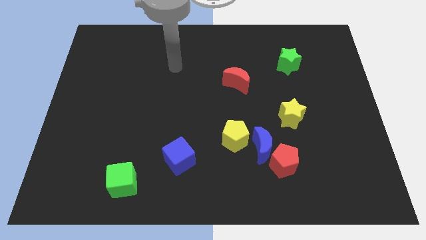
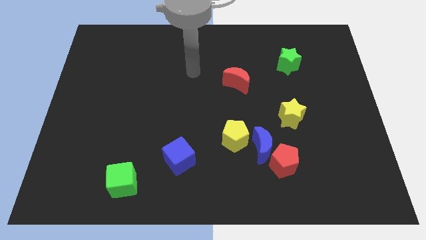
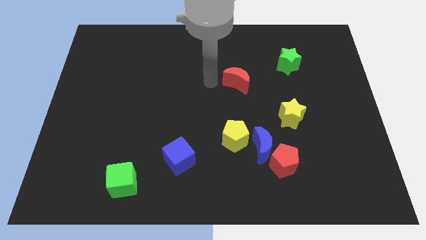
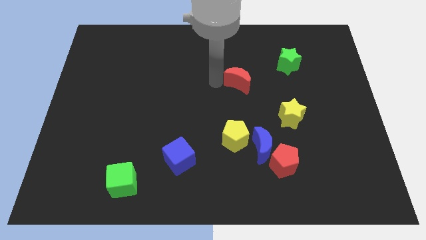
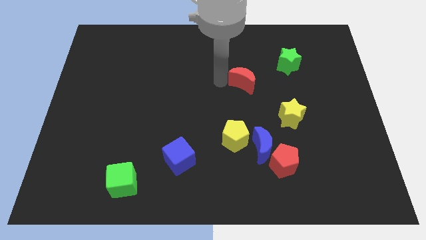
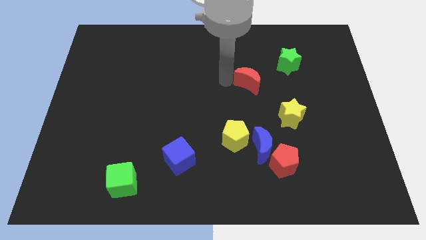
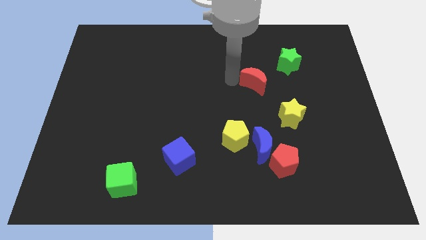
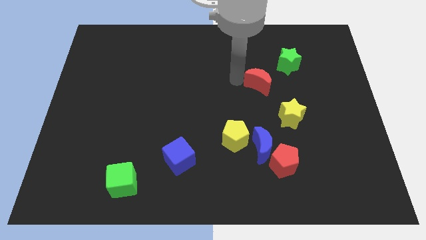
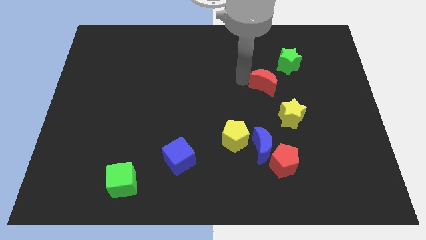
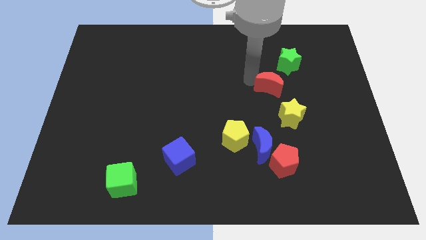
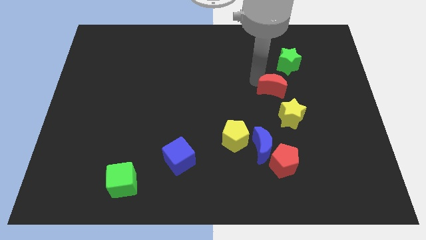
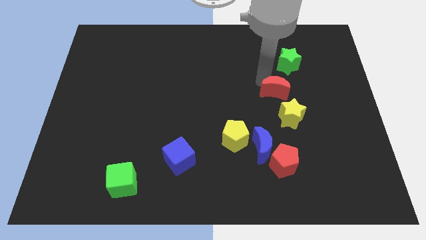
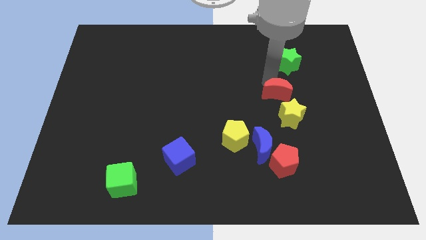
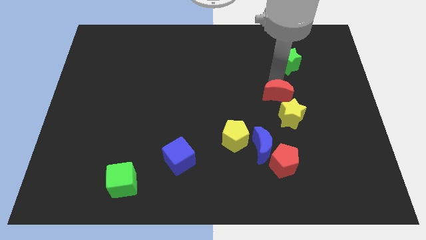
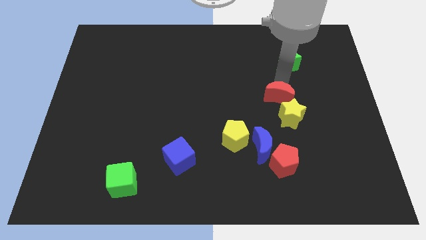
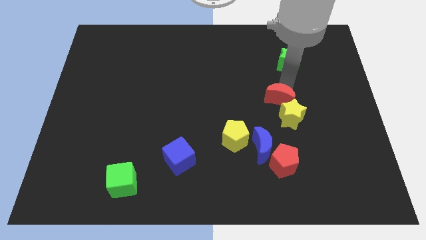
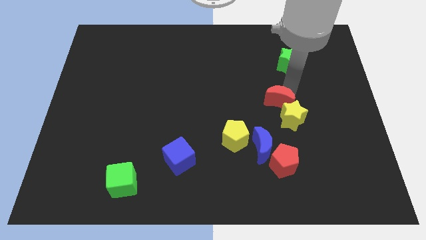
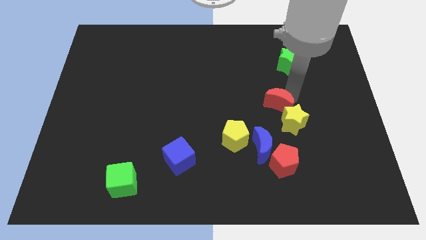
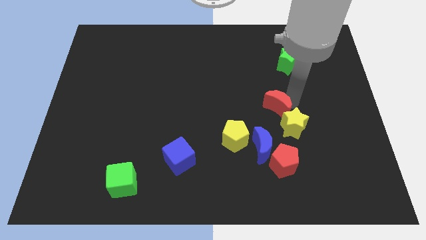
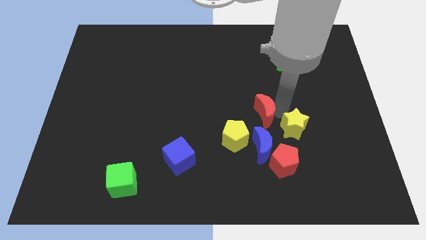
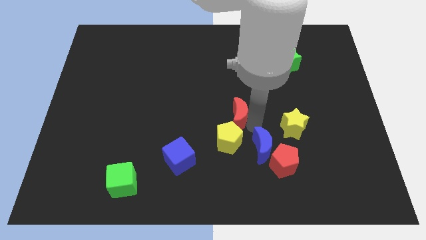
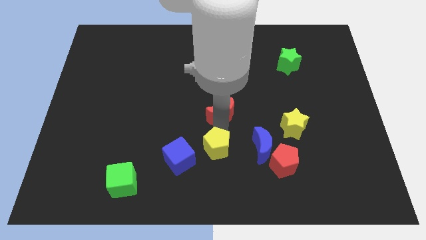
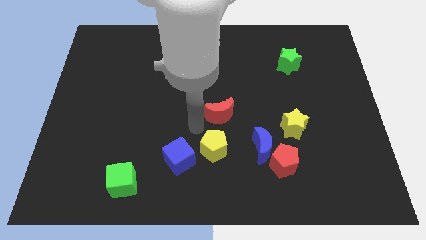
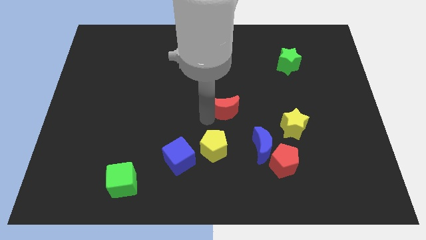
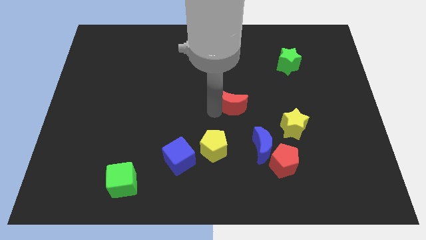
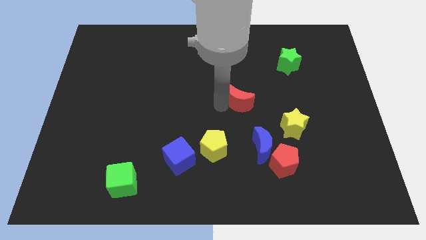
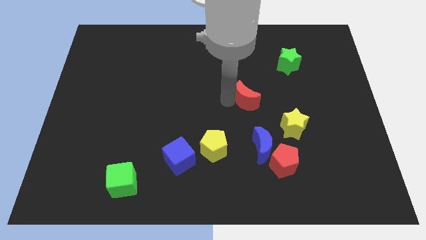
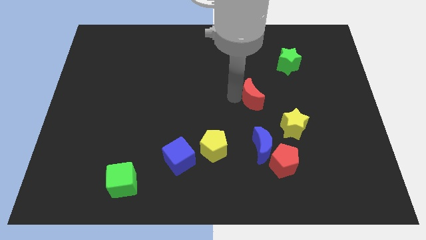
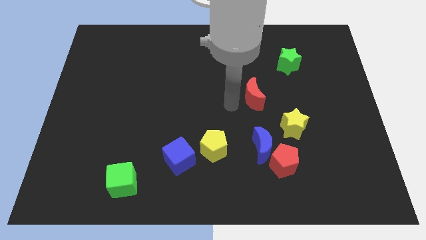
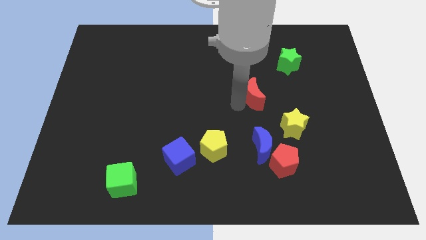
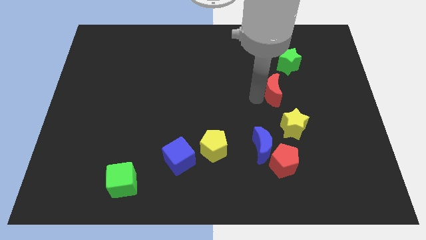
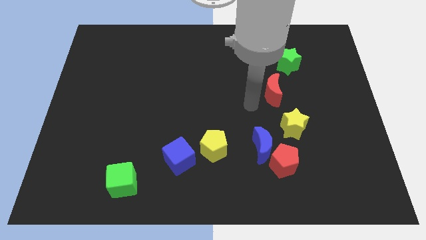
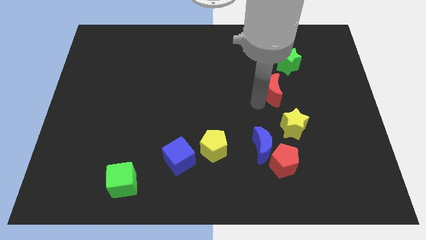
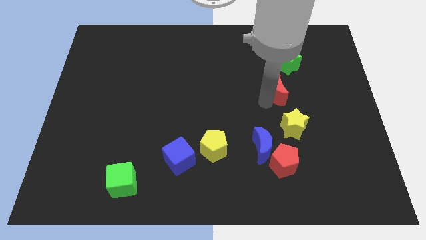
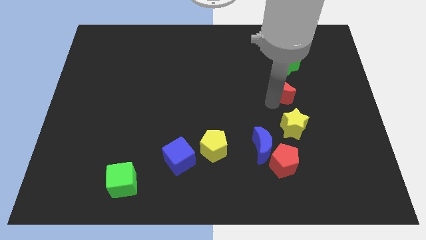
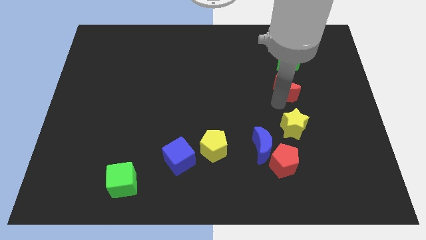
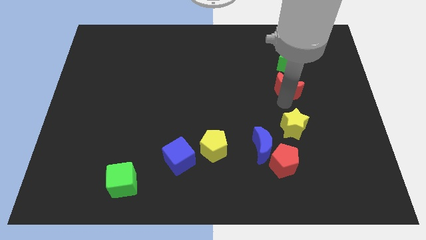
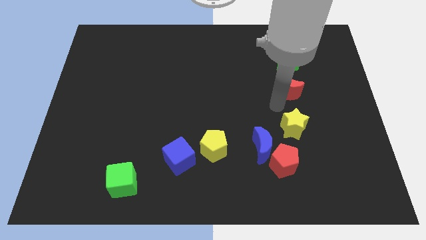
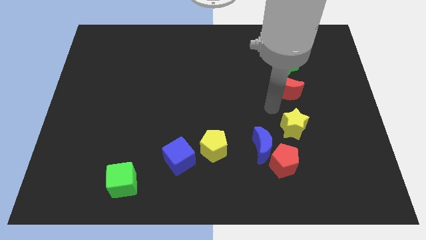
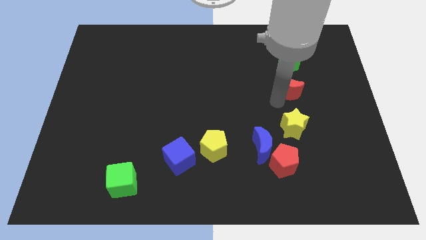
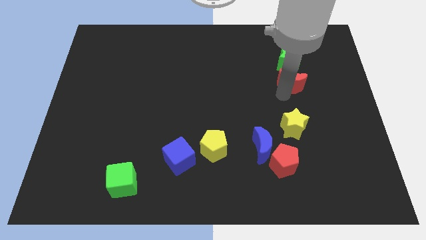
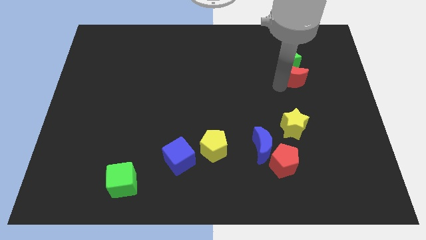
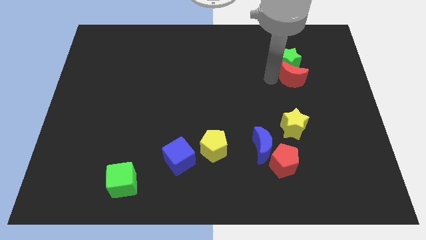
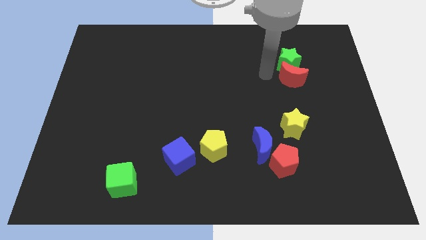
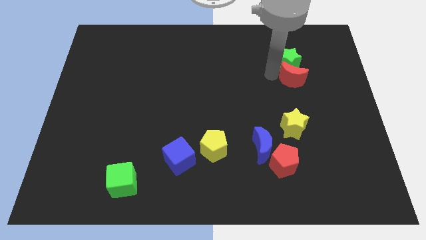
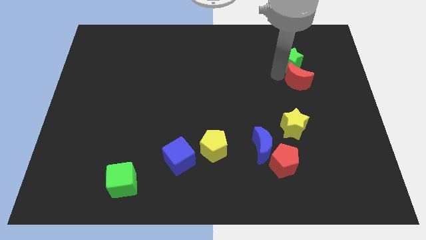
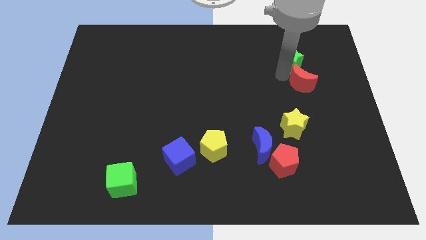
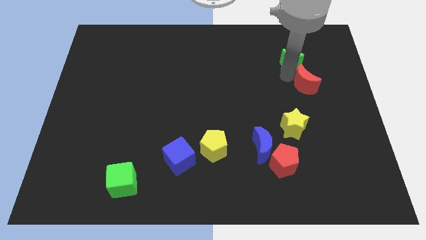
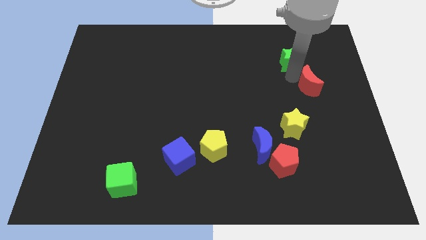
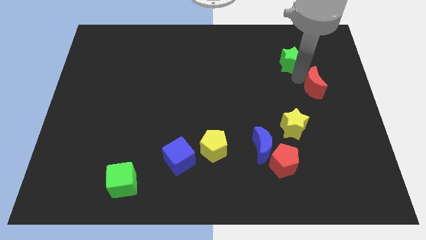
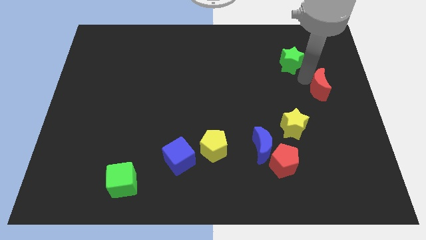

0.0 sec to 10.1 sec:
put the red moon to the center right
